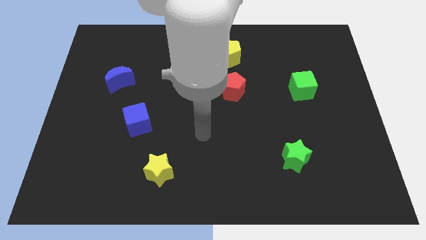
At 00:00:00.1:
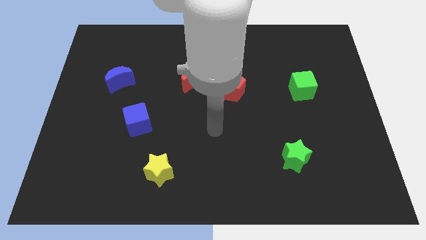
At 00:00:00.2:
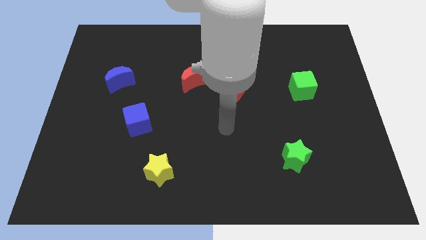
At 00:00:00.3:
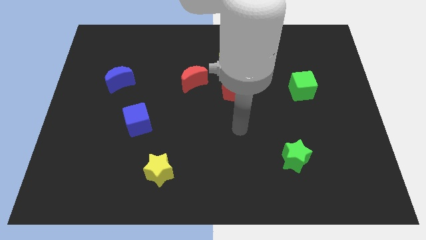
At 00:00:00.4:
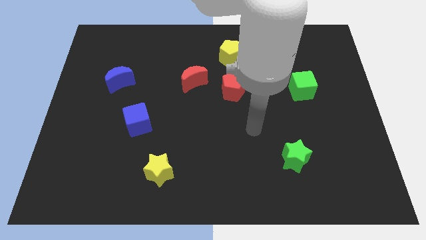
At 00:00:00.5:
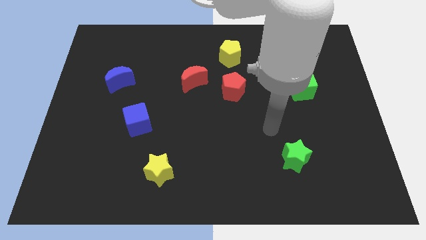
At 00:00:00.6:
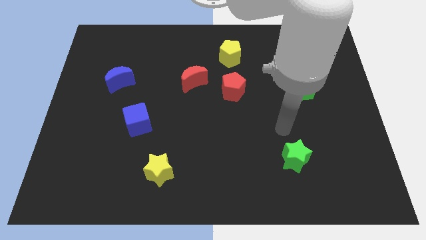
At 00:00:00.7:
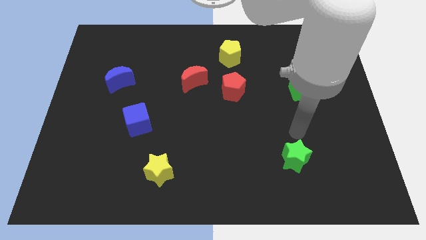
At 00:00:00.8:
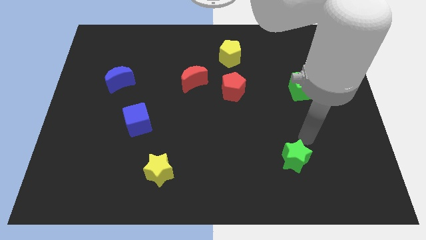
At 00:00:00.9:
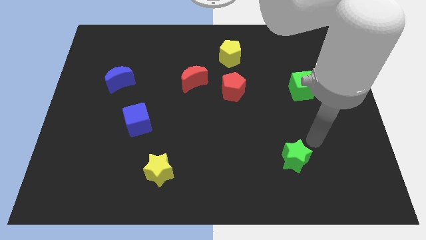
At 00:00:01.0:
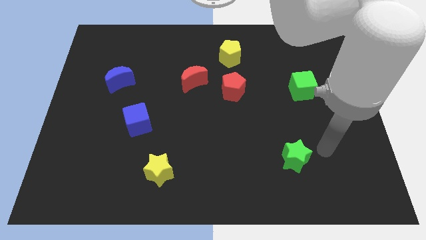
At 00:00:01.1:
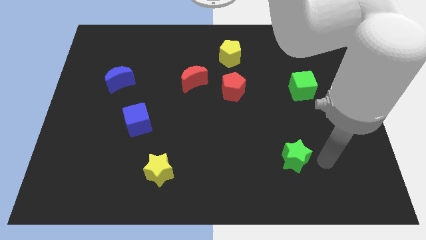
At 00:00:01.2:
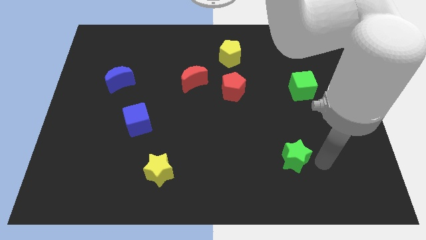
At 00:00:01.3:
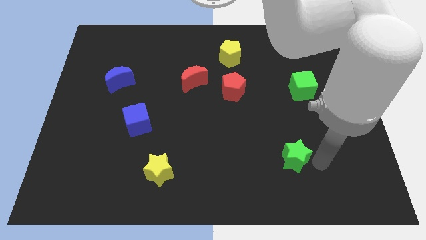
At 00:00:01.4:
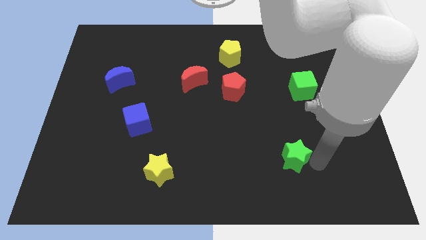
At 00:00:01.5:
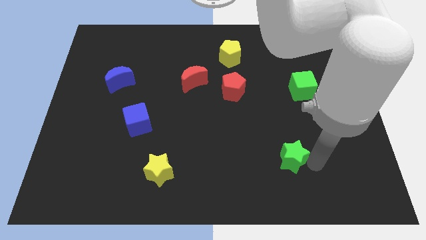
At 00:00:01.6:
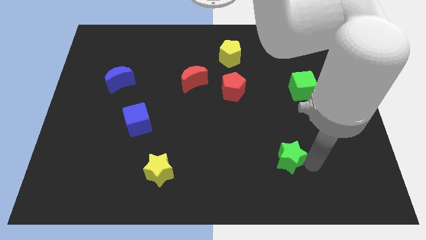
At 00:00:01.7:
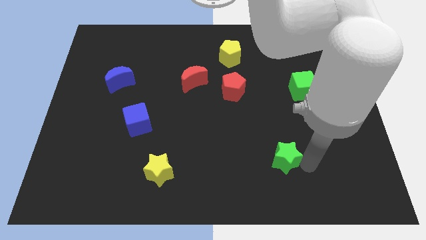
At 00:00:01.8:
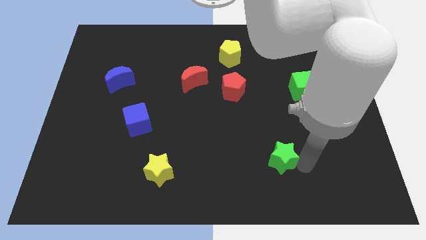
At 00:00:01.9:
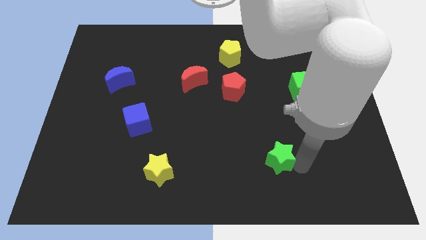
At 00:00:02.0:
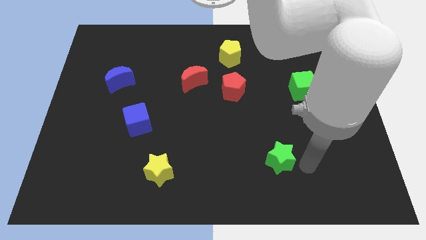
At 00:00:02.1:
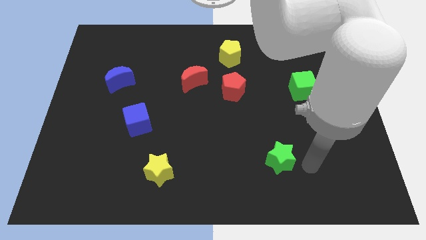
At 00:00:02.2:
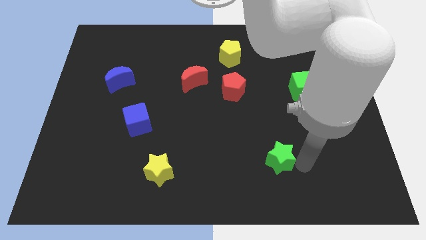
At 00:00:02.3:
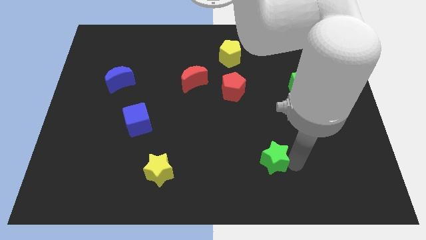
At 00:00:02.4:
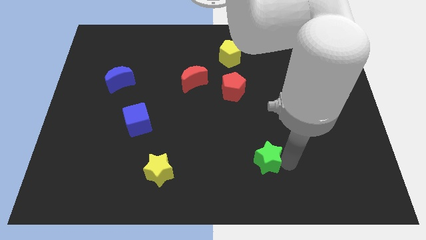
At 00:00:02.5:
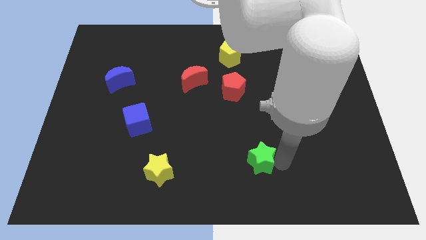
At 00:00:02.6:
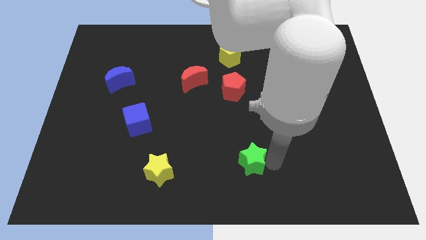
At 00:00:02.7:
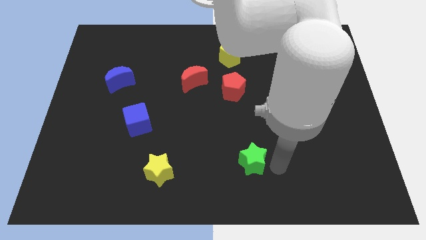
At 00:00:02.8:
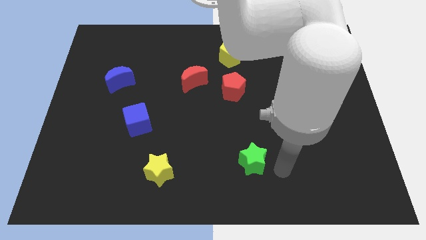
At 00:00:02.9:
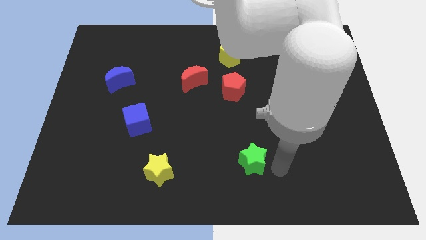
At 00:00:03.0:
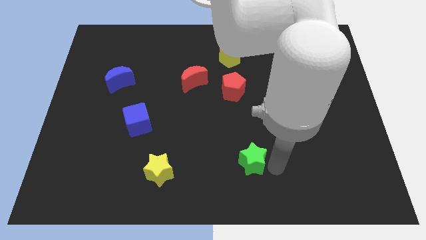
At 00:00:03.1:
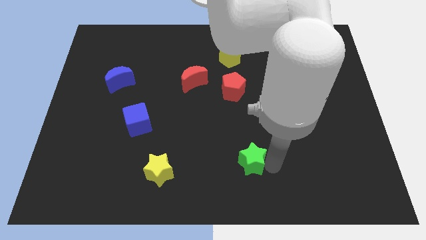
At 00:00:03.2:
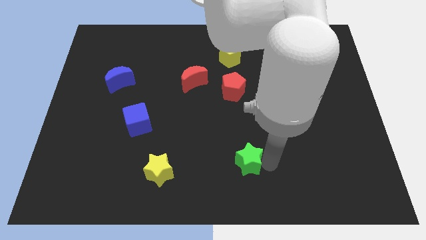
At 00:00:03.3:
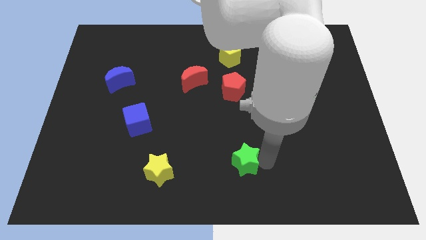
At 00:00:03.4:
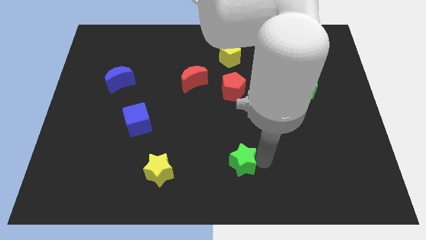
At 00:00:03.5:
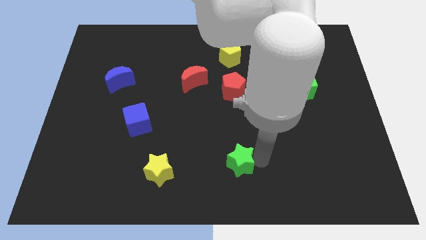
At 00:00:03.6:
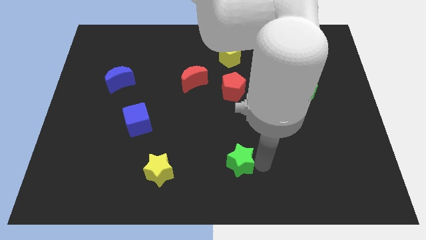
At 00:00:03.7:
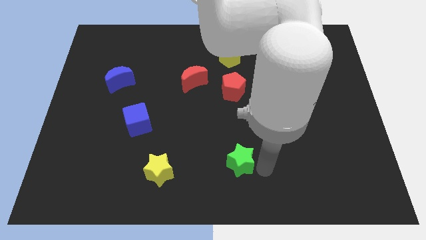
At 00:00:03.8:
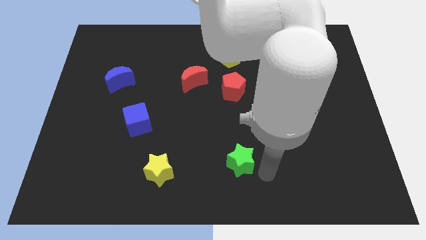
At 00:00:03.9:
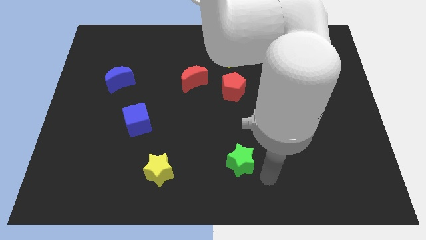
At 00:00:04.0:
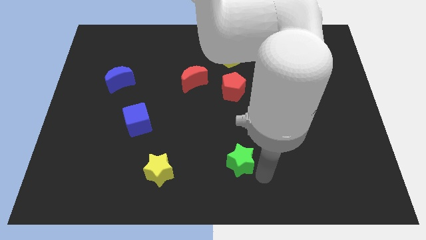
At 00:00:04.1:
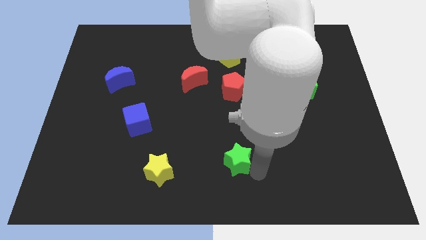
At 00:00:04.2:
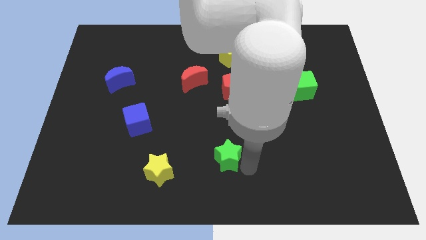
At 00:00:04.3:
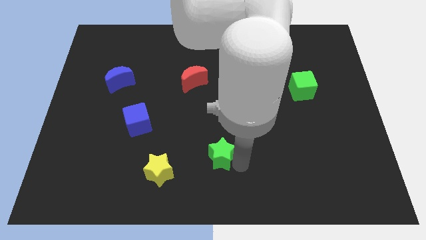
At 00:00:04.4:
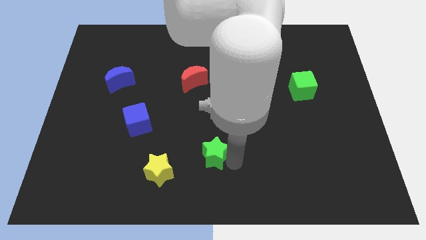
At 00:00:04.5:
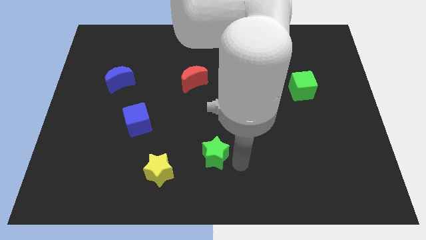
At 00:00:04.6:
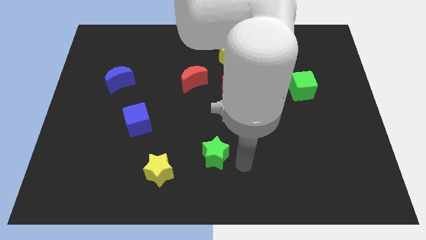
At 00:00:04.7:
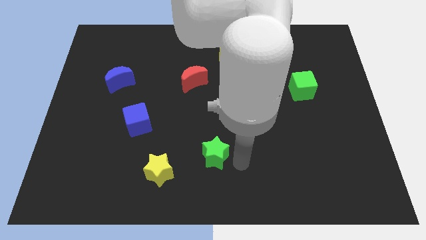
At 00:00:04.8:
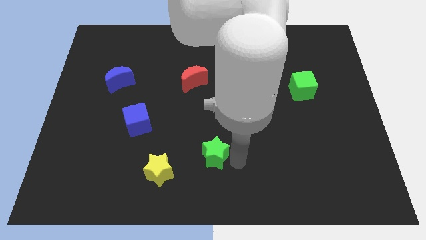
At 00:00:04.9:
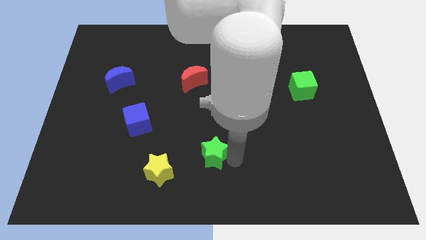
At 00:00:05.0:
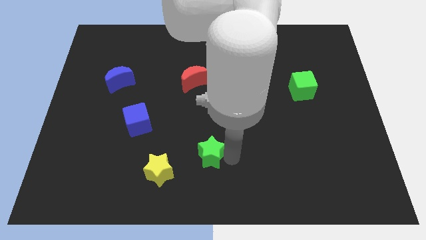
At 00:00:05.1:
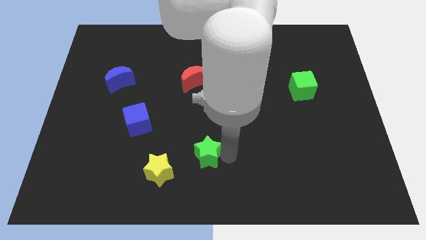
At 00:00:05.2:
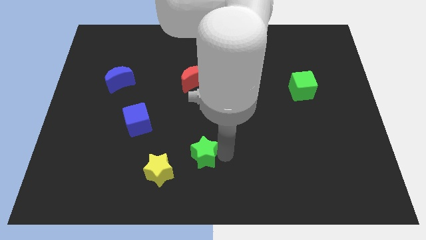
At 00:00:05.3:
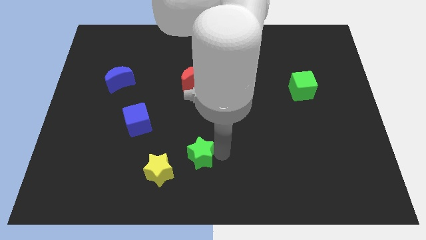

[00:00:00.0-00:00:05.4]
move the green star left

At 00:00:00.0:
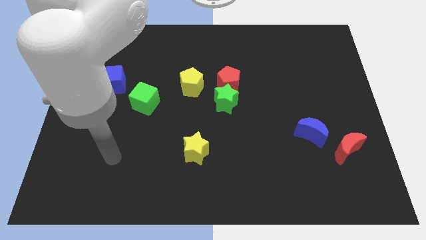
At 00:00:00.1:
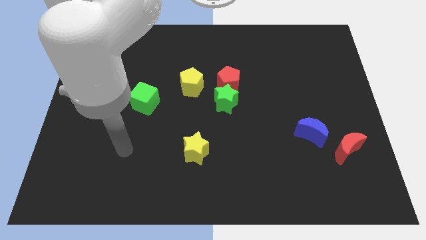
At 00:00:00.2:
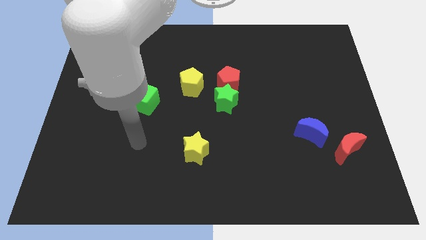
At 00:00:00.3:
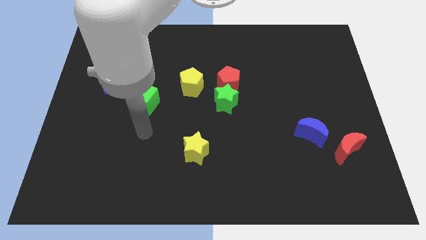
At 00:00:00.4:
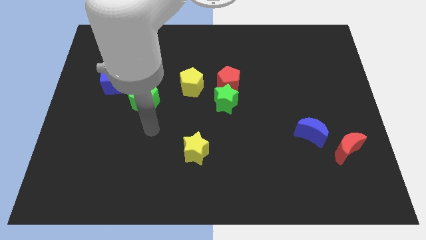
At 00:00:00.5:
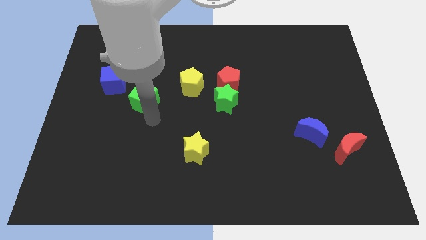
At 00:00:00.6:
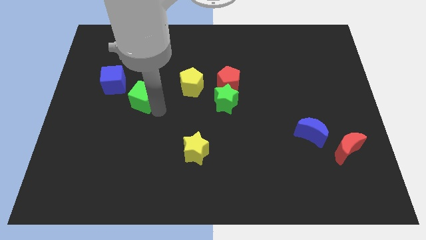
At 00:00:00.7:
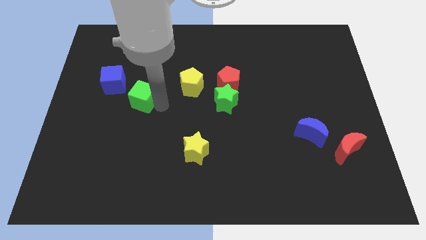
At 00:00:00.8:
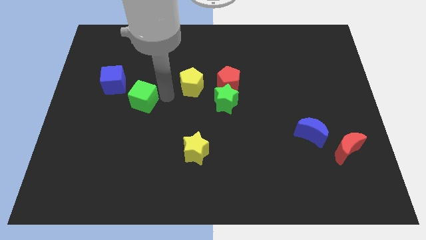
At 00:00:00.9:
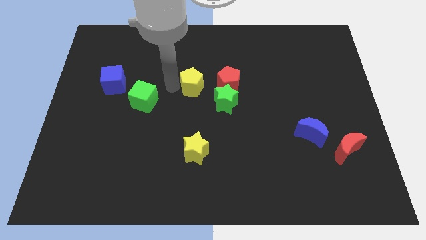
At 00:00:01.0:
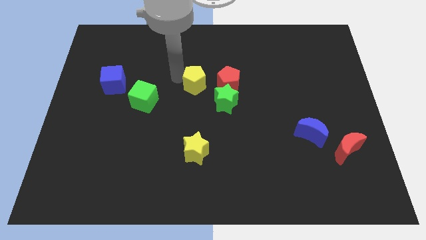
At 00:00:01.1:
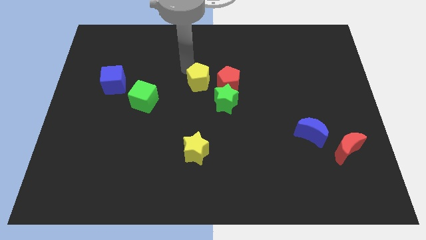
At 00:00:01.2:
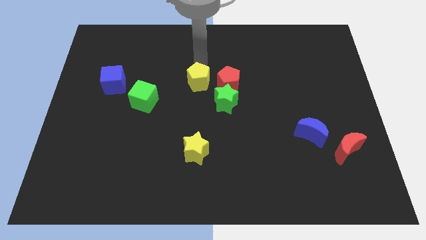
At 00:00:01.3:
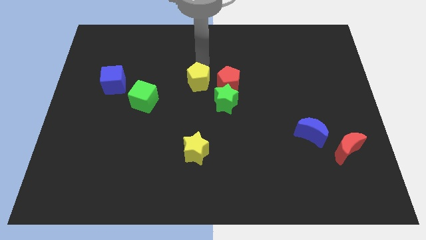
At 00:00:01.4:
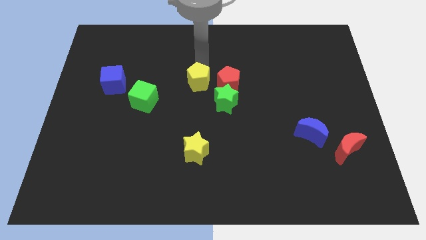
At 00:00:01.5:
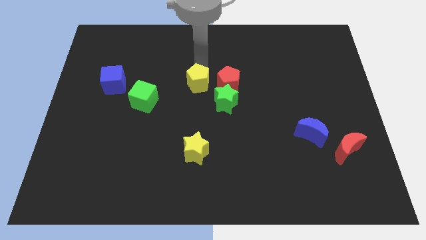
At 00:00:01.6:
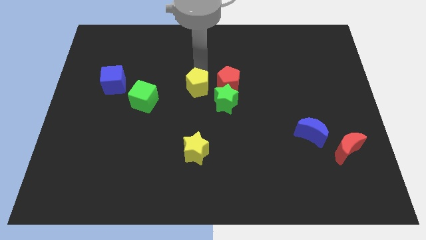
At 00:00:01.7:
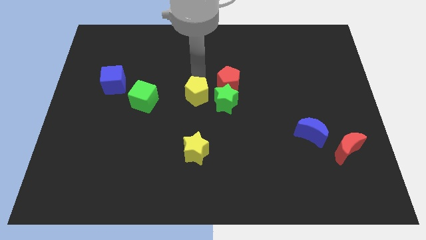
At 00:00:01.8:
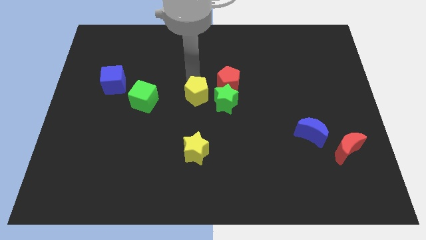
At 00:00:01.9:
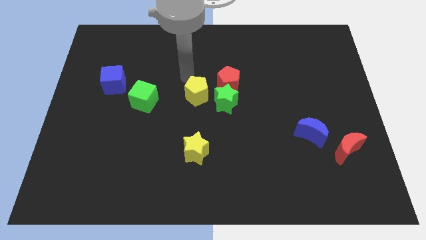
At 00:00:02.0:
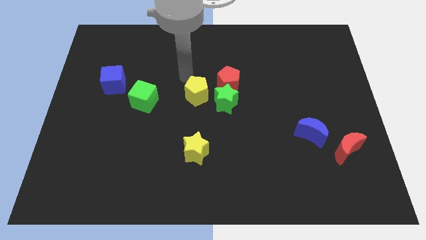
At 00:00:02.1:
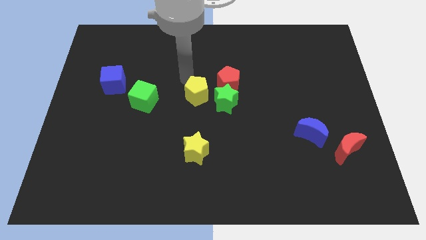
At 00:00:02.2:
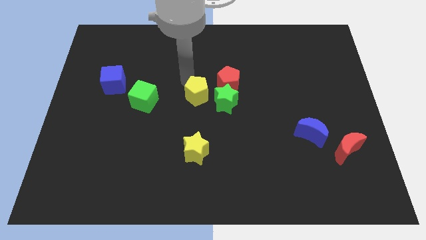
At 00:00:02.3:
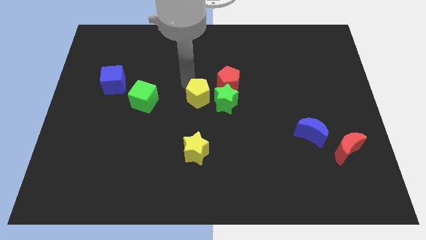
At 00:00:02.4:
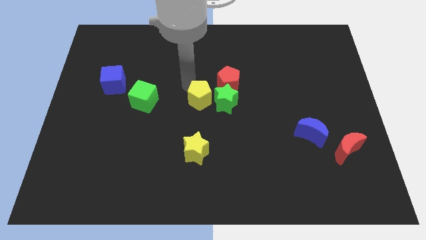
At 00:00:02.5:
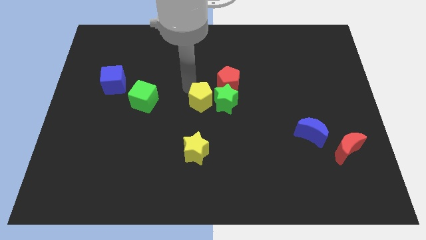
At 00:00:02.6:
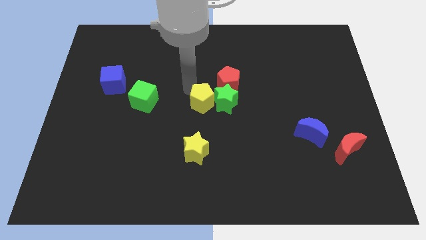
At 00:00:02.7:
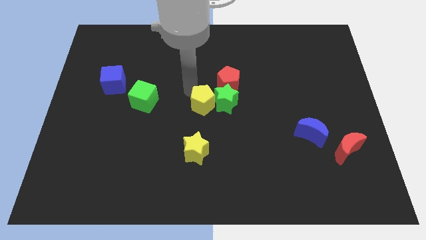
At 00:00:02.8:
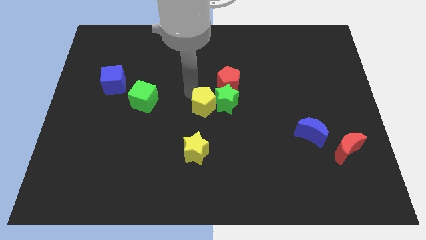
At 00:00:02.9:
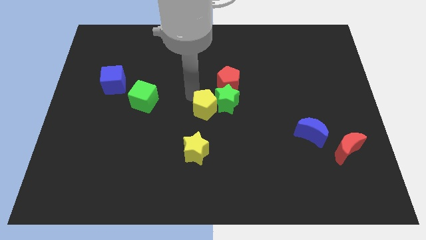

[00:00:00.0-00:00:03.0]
move the yellow pentagon down and then to the right a bit
